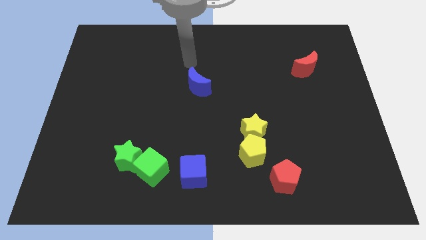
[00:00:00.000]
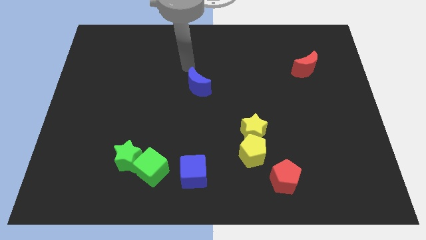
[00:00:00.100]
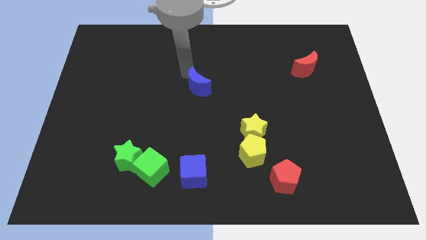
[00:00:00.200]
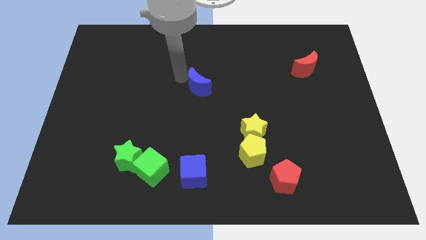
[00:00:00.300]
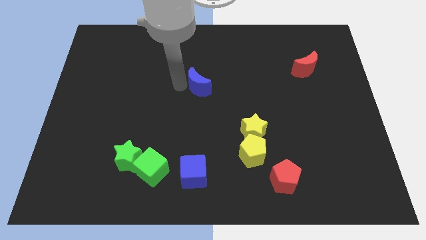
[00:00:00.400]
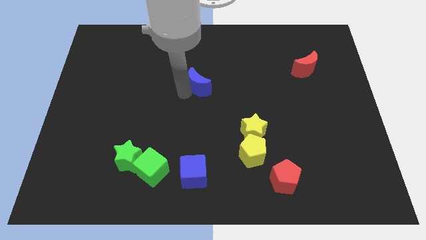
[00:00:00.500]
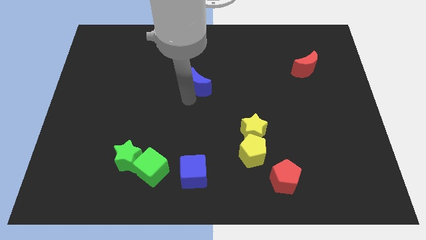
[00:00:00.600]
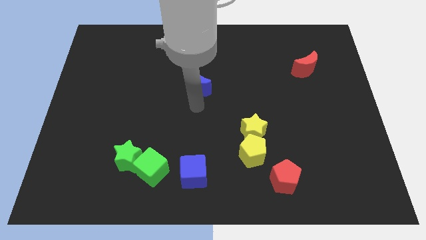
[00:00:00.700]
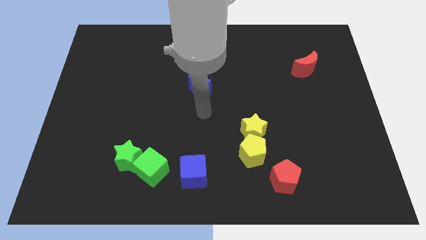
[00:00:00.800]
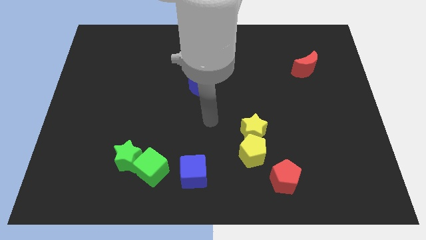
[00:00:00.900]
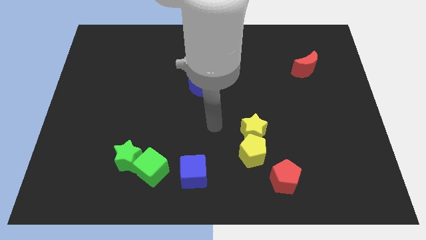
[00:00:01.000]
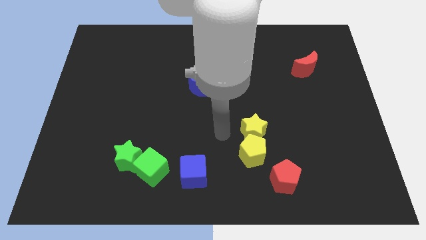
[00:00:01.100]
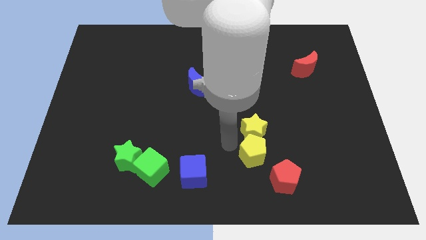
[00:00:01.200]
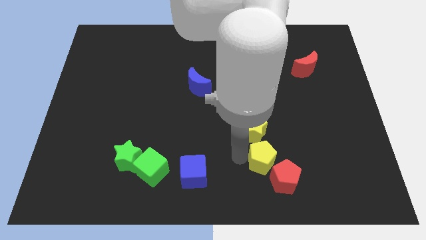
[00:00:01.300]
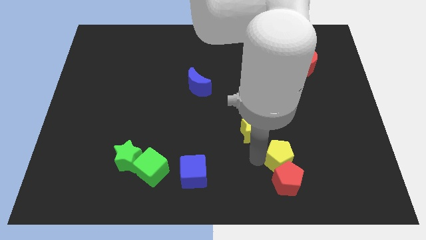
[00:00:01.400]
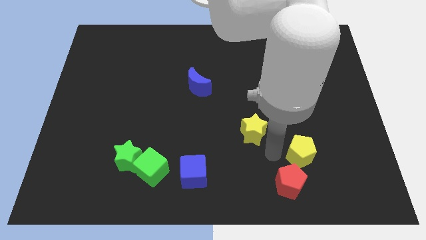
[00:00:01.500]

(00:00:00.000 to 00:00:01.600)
pull the yellow star apart from the yellow pentagon

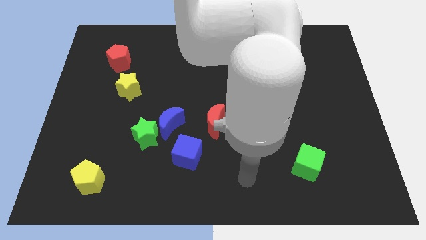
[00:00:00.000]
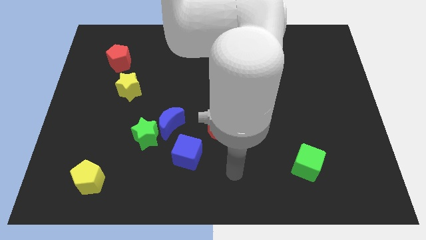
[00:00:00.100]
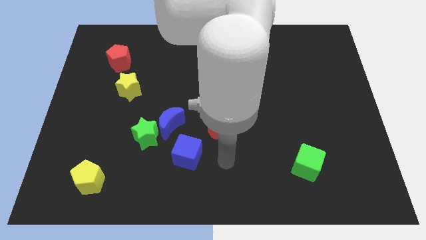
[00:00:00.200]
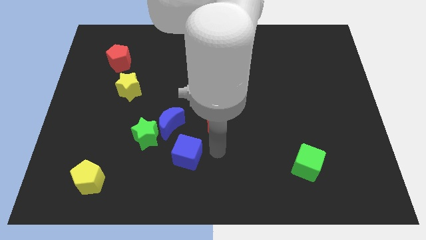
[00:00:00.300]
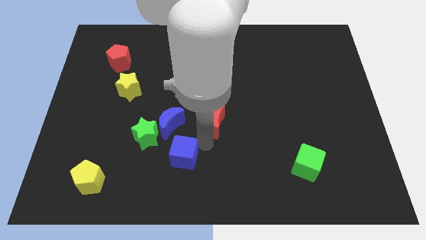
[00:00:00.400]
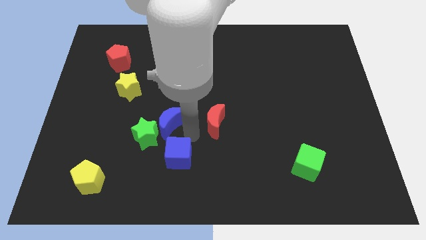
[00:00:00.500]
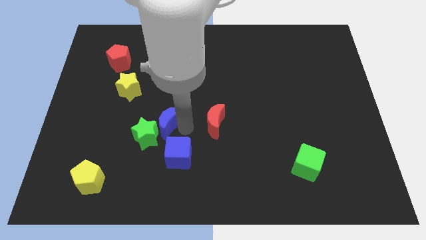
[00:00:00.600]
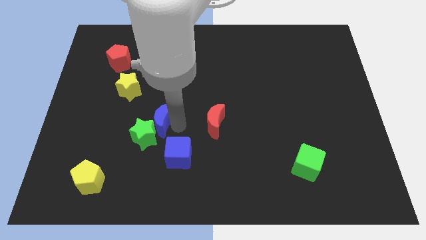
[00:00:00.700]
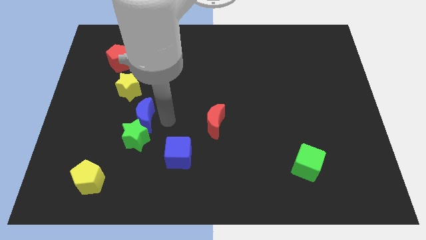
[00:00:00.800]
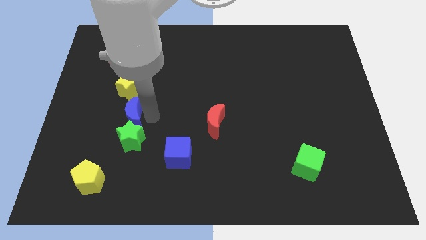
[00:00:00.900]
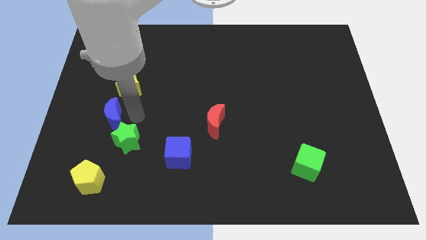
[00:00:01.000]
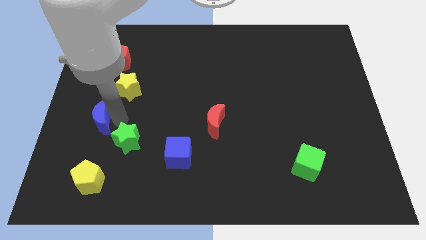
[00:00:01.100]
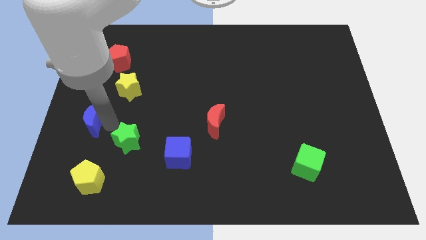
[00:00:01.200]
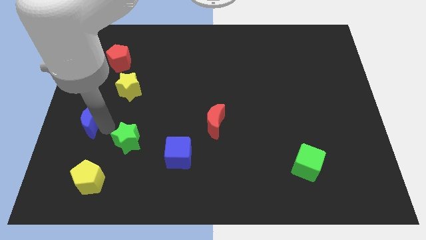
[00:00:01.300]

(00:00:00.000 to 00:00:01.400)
separate the green star from the blue moon

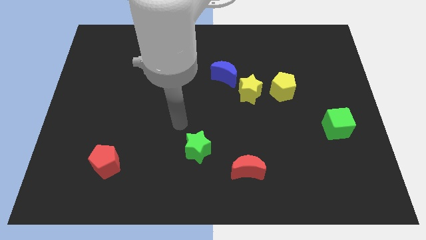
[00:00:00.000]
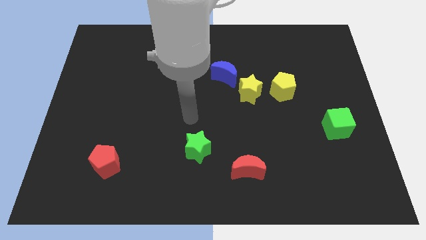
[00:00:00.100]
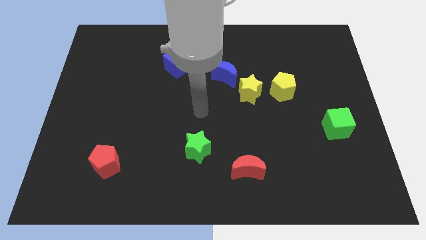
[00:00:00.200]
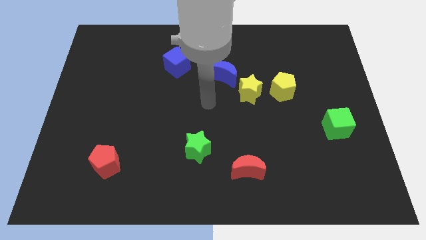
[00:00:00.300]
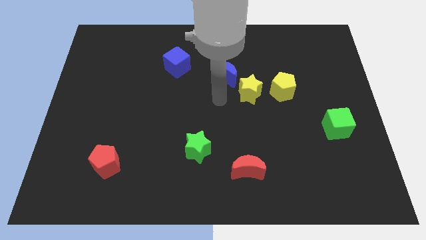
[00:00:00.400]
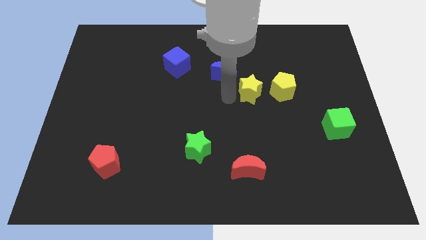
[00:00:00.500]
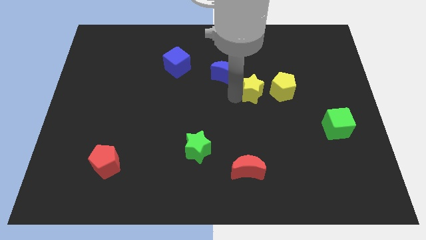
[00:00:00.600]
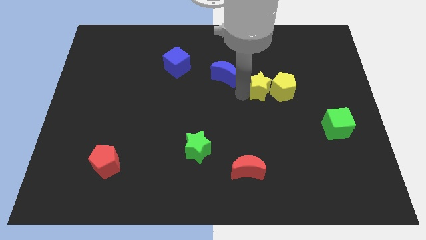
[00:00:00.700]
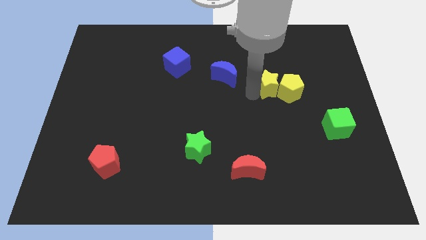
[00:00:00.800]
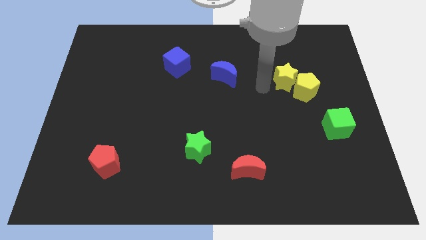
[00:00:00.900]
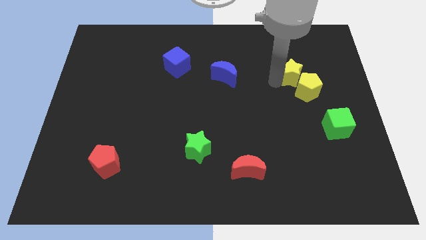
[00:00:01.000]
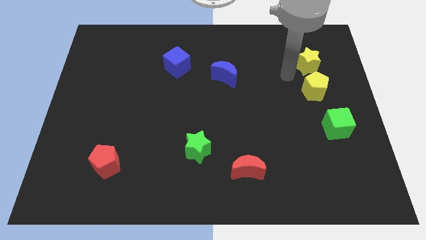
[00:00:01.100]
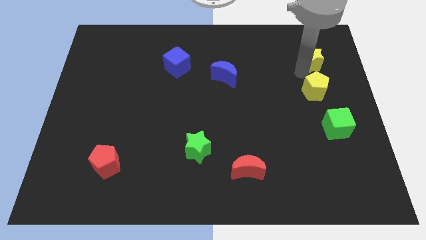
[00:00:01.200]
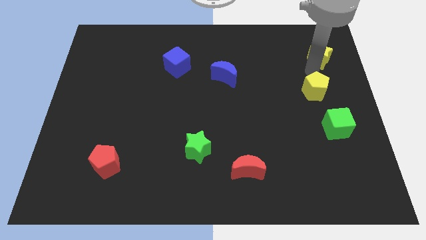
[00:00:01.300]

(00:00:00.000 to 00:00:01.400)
move the yellow pentagon away from the yellow star

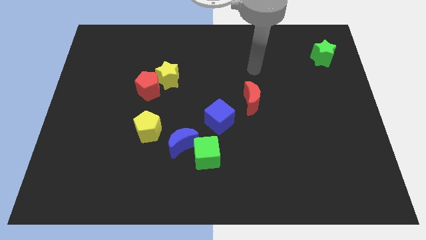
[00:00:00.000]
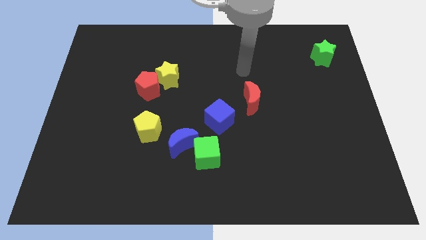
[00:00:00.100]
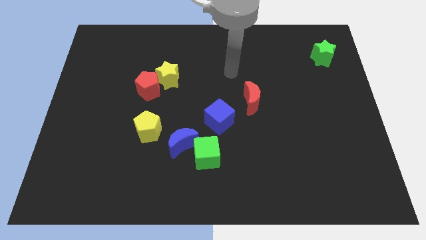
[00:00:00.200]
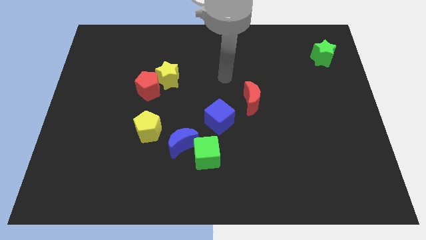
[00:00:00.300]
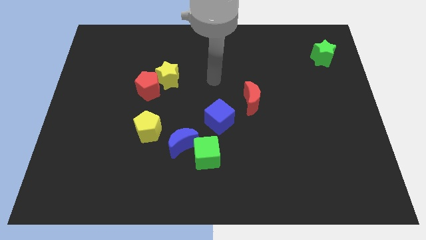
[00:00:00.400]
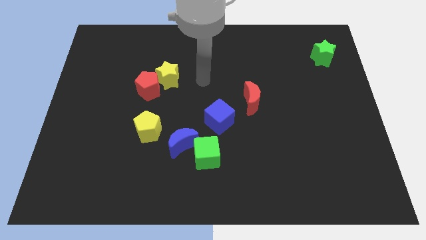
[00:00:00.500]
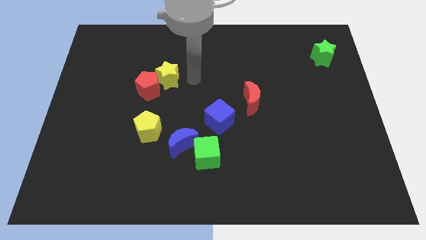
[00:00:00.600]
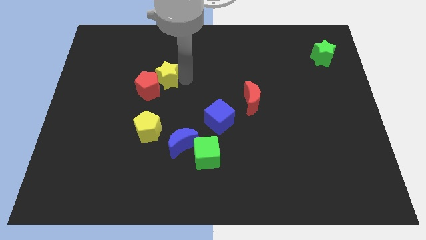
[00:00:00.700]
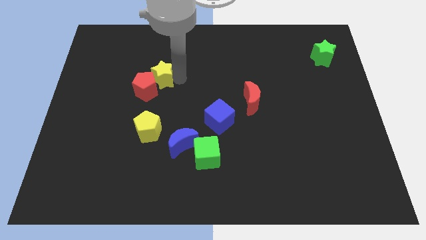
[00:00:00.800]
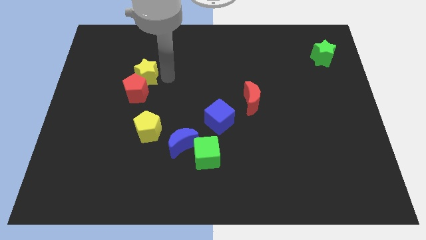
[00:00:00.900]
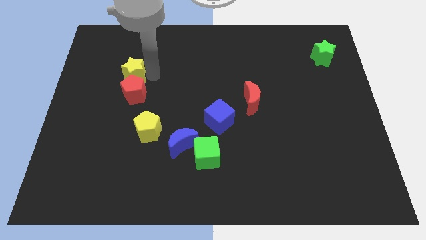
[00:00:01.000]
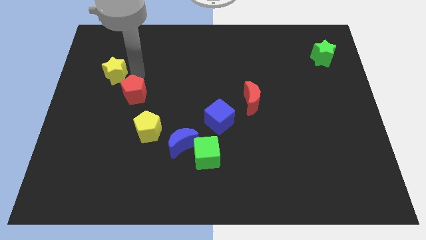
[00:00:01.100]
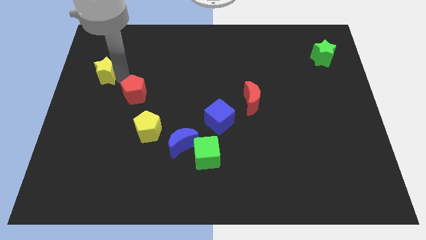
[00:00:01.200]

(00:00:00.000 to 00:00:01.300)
move the red pentagon away from the yellow star

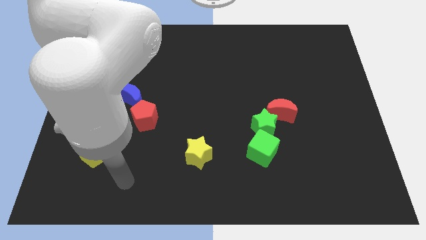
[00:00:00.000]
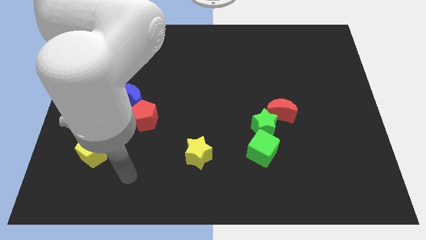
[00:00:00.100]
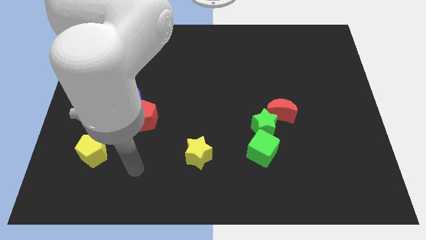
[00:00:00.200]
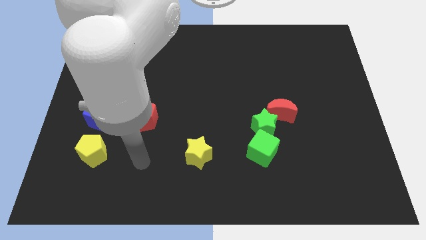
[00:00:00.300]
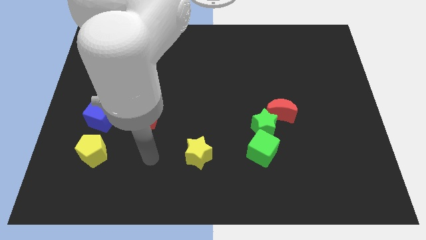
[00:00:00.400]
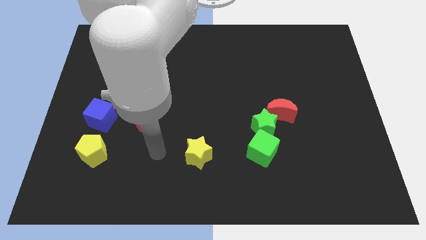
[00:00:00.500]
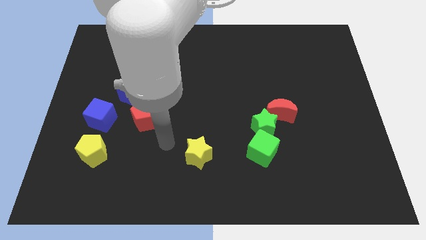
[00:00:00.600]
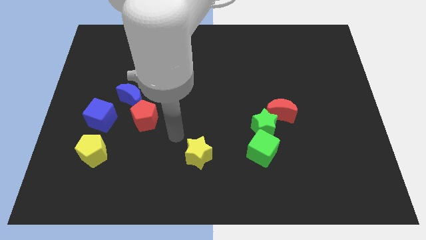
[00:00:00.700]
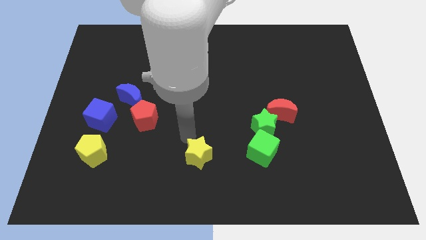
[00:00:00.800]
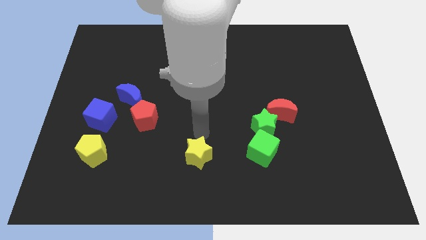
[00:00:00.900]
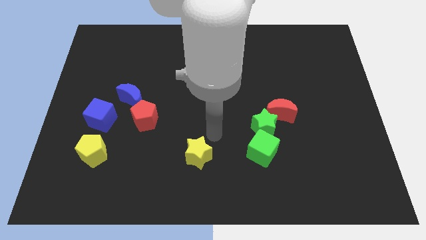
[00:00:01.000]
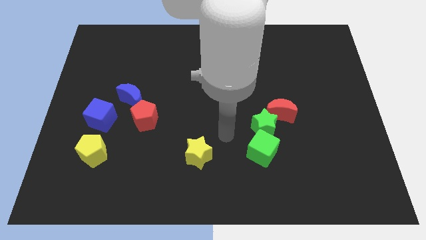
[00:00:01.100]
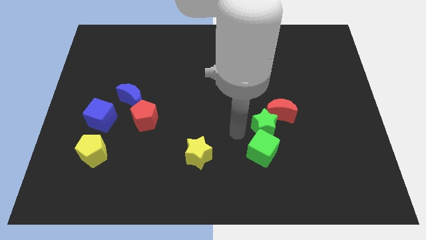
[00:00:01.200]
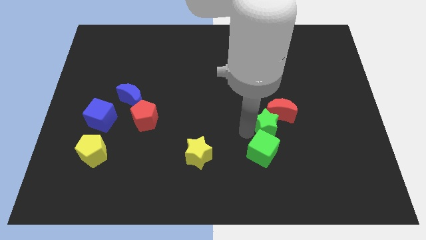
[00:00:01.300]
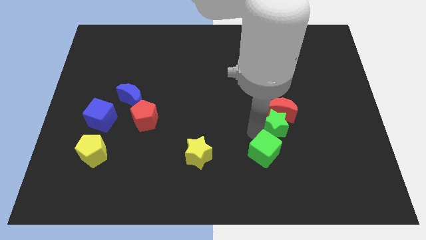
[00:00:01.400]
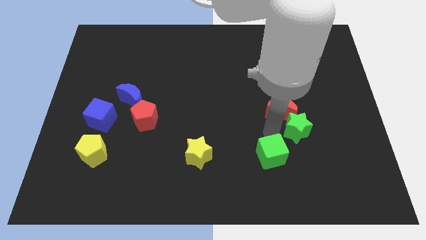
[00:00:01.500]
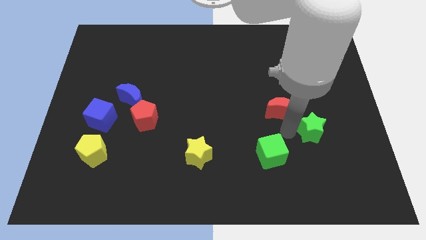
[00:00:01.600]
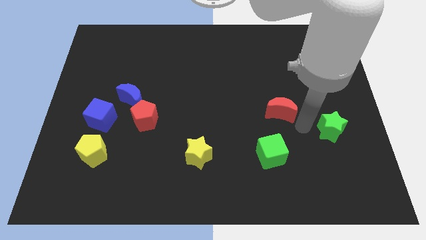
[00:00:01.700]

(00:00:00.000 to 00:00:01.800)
separate the red moon from the green star

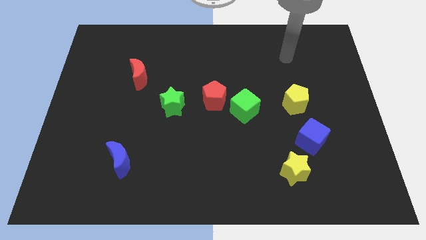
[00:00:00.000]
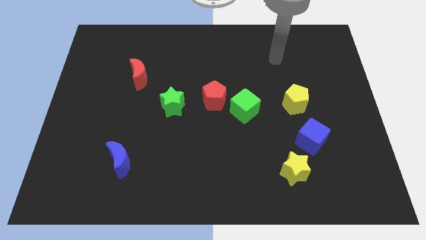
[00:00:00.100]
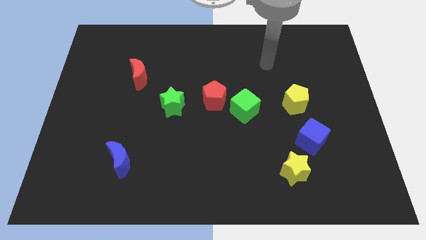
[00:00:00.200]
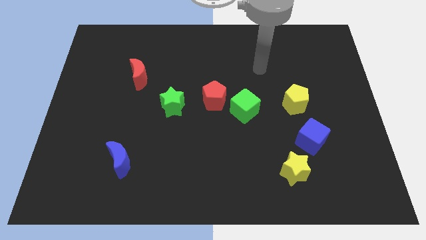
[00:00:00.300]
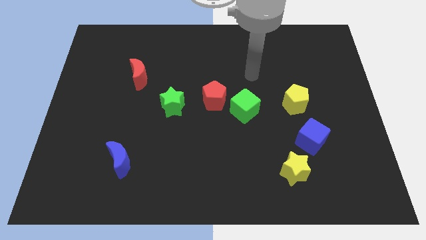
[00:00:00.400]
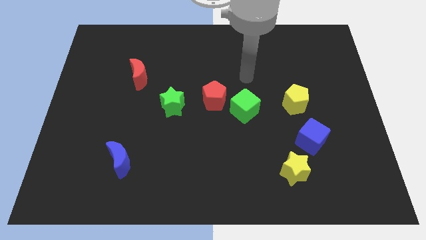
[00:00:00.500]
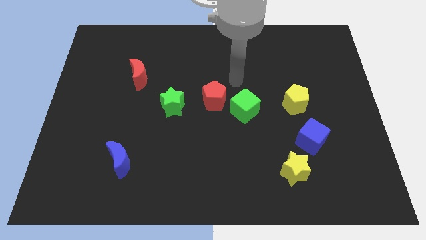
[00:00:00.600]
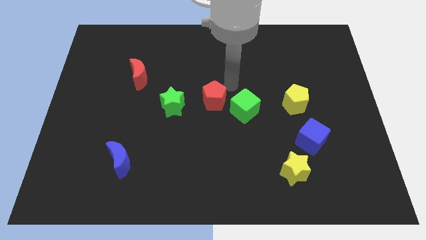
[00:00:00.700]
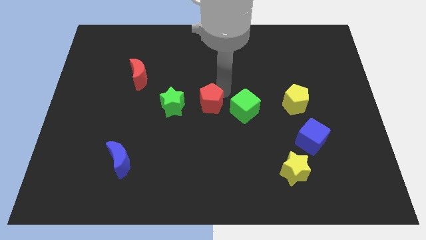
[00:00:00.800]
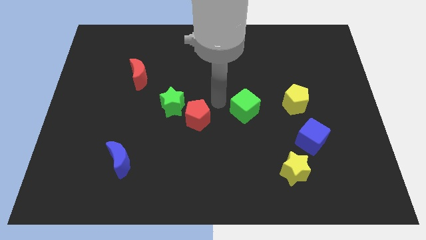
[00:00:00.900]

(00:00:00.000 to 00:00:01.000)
pull the green cube apart from the red pentagon

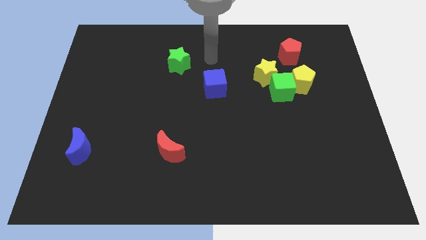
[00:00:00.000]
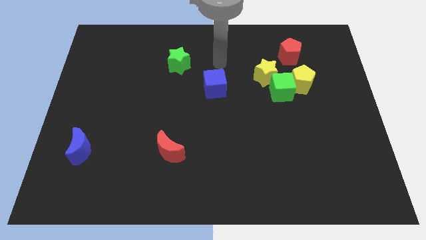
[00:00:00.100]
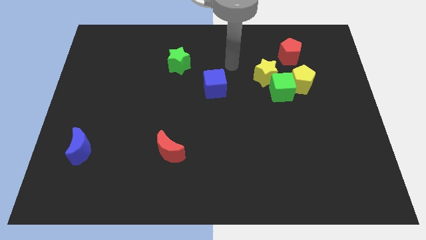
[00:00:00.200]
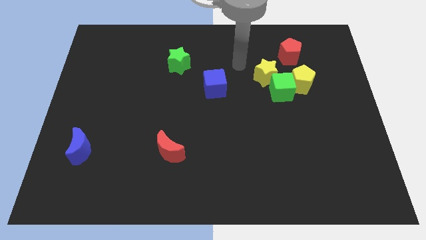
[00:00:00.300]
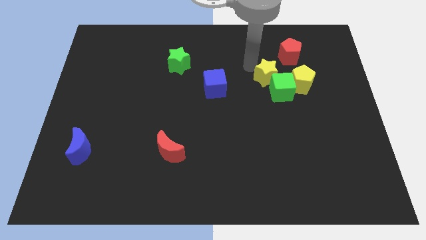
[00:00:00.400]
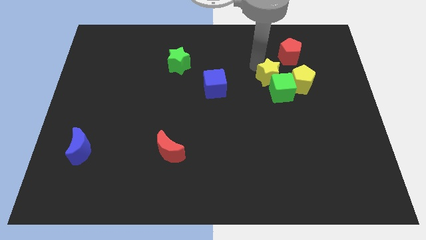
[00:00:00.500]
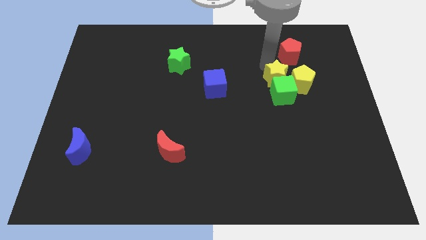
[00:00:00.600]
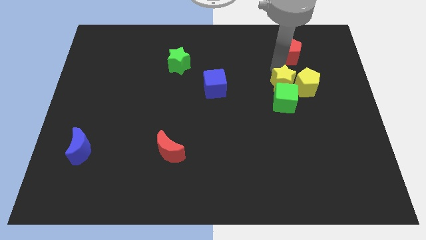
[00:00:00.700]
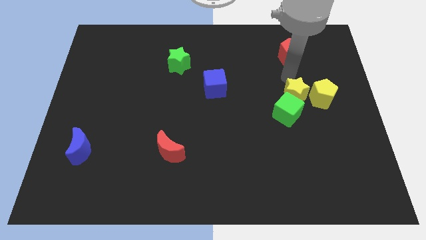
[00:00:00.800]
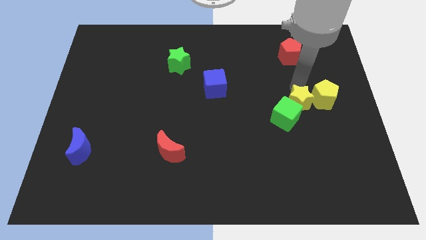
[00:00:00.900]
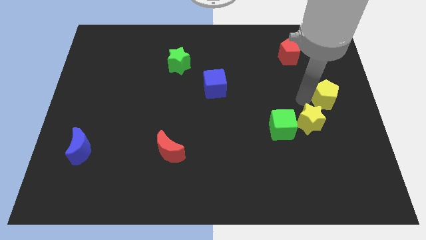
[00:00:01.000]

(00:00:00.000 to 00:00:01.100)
move the green cube away from the yellow pentagon and yellow star
